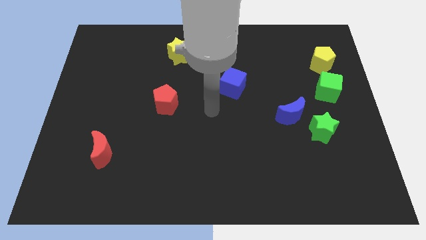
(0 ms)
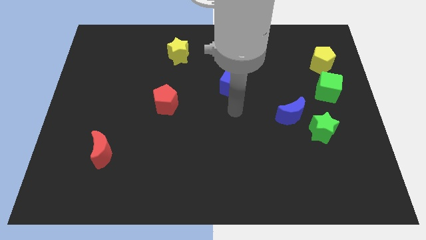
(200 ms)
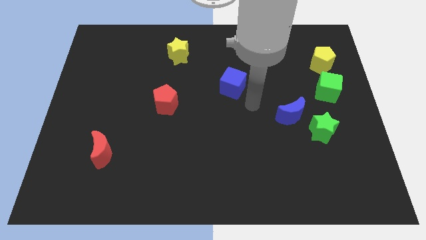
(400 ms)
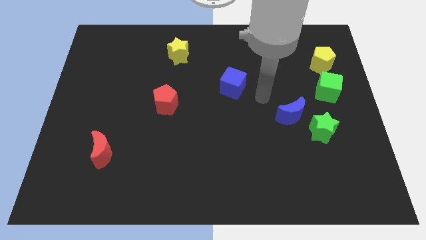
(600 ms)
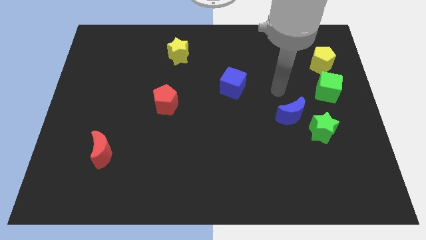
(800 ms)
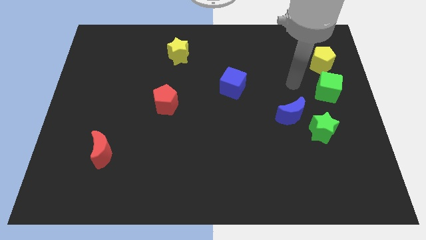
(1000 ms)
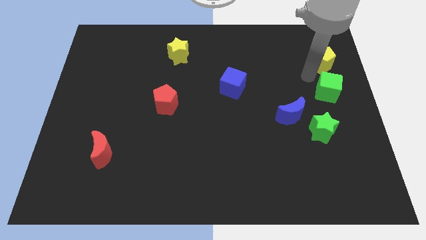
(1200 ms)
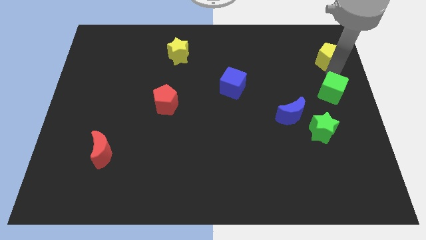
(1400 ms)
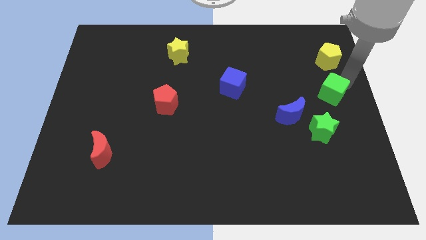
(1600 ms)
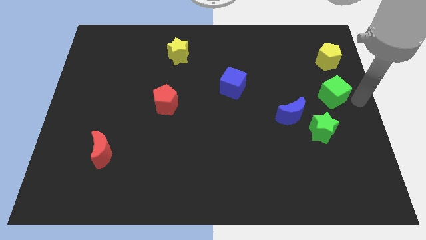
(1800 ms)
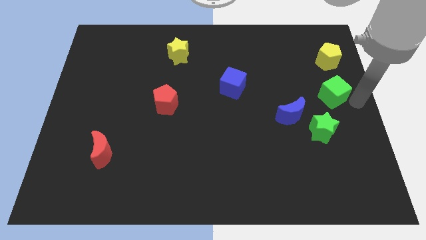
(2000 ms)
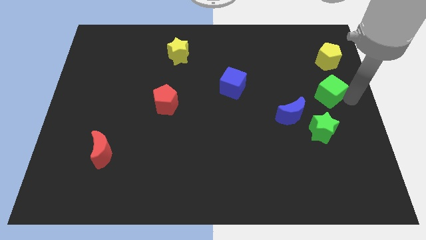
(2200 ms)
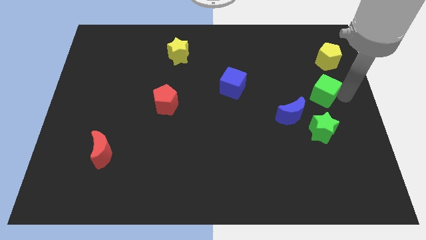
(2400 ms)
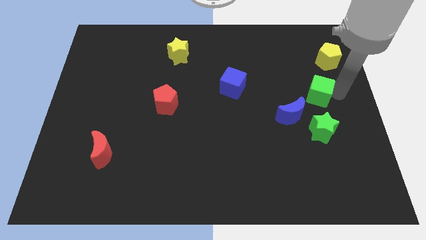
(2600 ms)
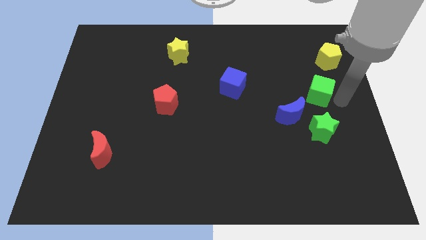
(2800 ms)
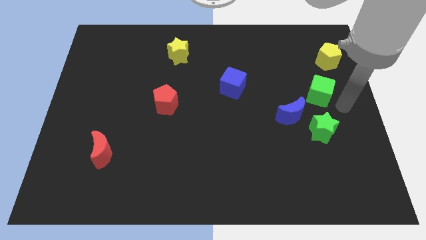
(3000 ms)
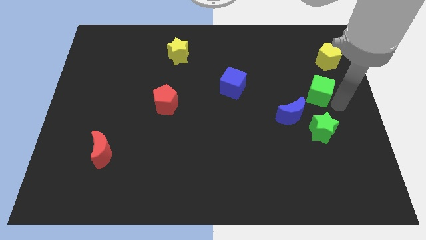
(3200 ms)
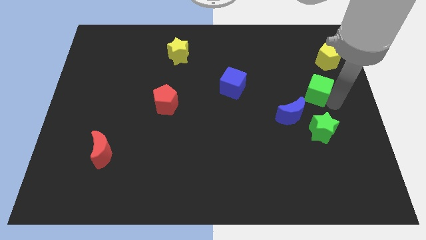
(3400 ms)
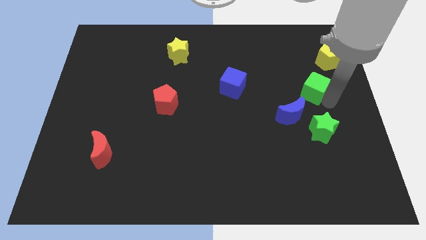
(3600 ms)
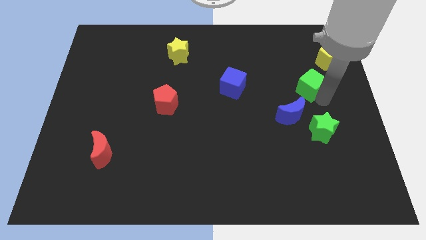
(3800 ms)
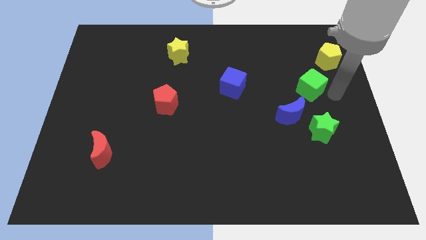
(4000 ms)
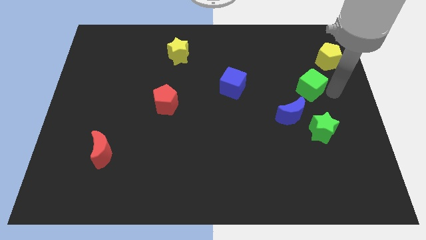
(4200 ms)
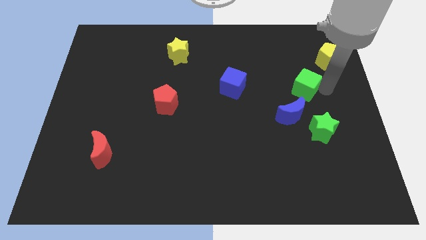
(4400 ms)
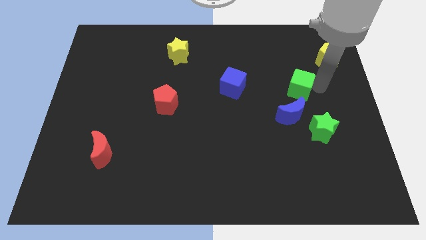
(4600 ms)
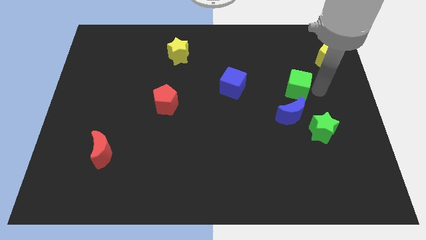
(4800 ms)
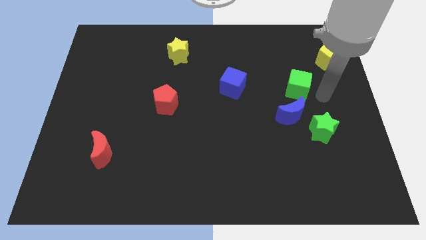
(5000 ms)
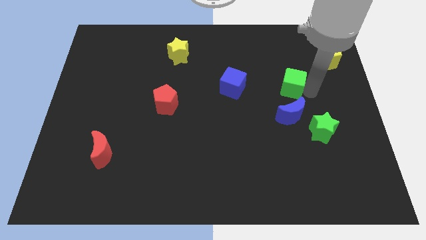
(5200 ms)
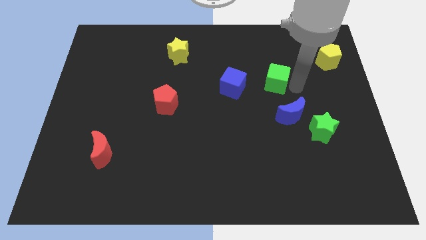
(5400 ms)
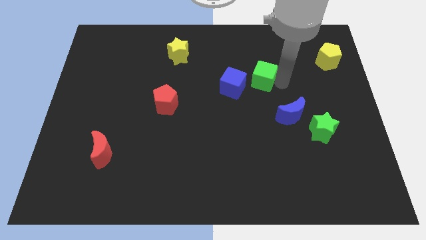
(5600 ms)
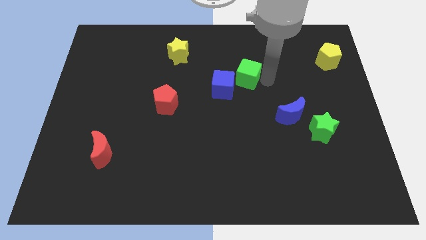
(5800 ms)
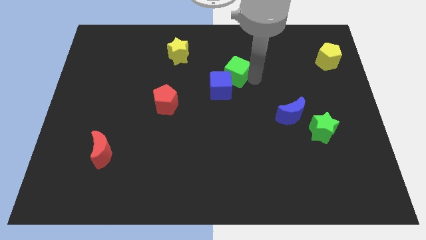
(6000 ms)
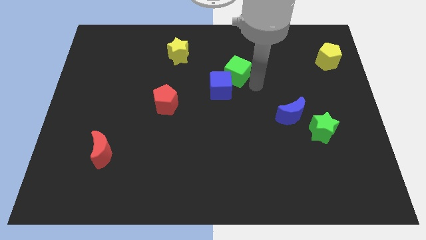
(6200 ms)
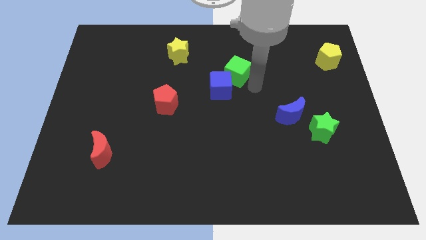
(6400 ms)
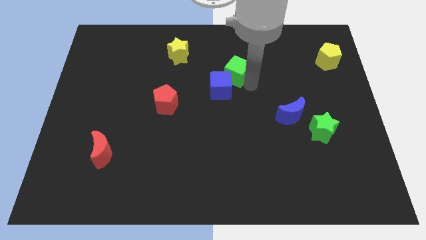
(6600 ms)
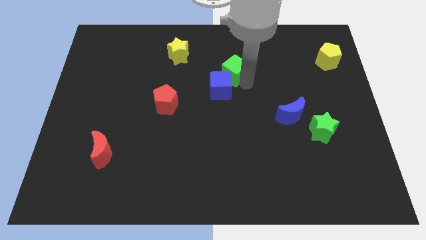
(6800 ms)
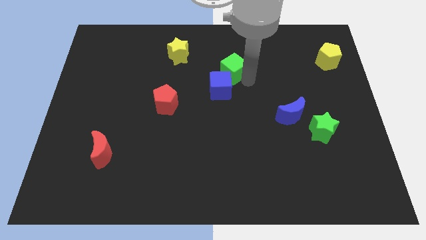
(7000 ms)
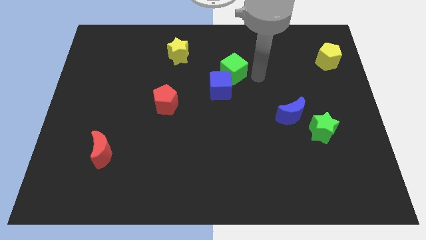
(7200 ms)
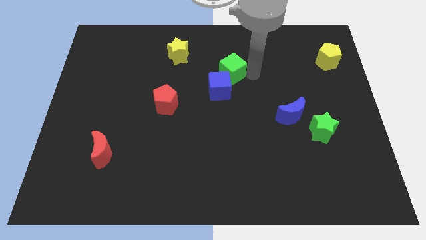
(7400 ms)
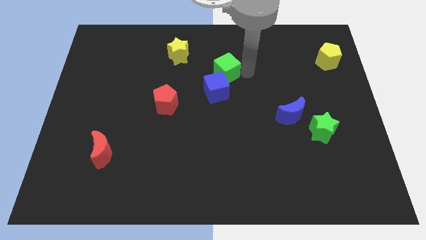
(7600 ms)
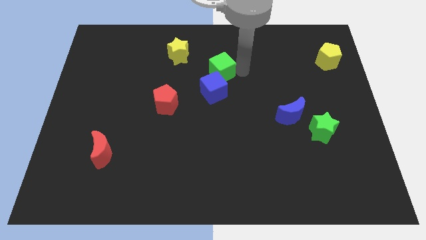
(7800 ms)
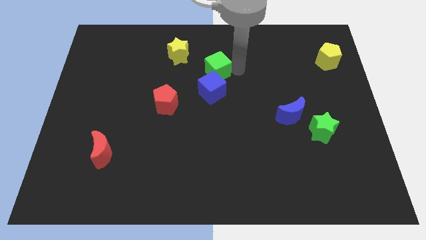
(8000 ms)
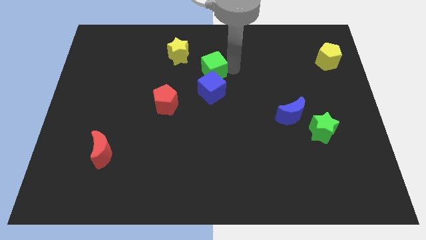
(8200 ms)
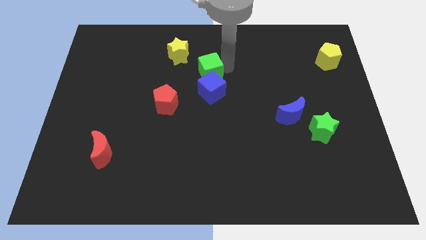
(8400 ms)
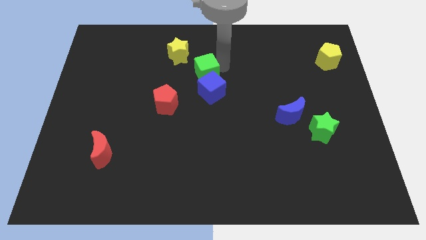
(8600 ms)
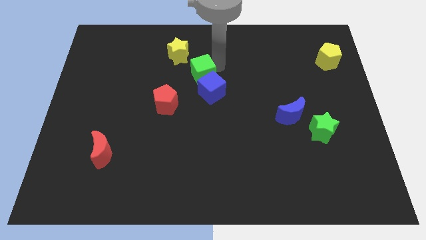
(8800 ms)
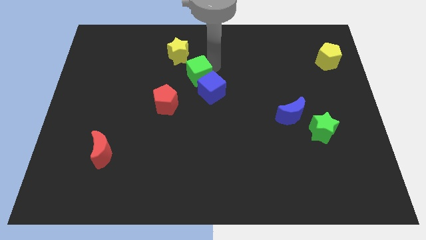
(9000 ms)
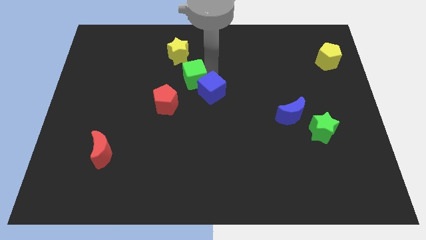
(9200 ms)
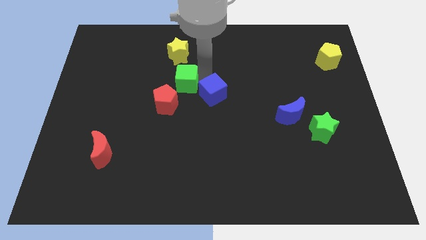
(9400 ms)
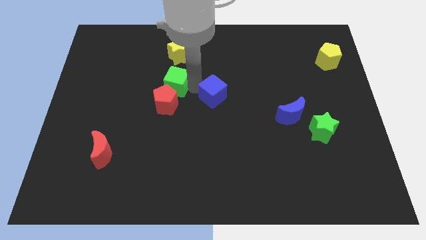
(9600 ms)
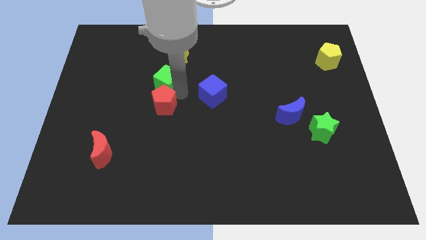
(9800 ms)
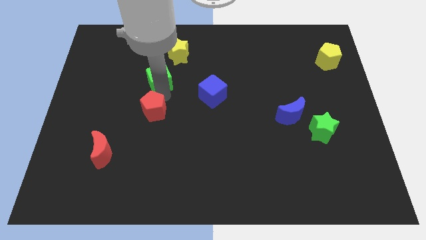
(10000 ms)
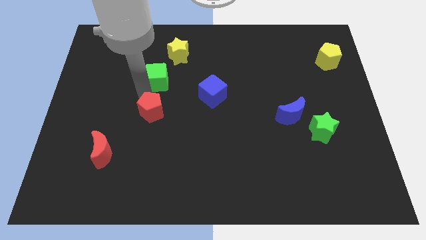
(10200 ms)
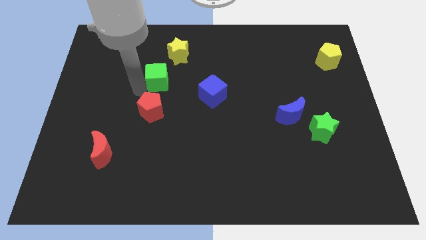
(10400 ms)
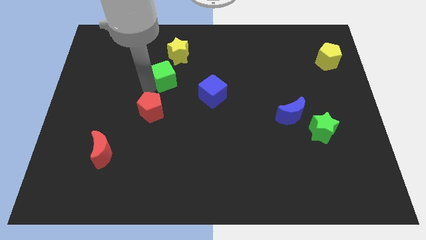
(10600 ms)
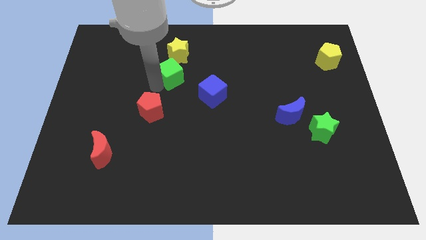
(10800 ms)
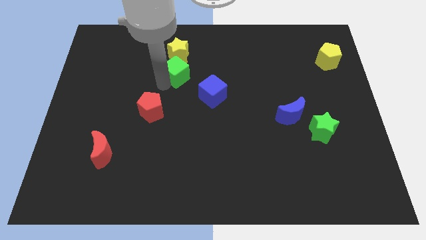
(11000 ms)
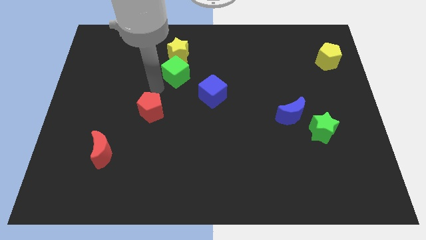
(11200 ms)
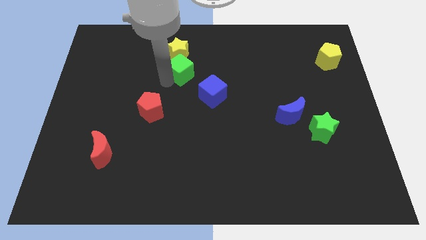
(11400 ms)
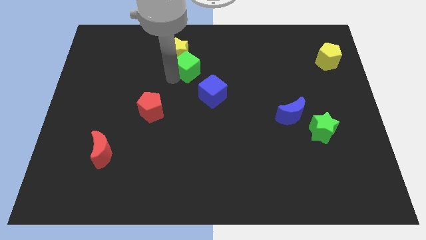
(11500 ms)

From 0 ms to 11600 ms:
put the green cube next to the yellow star
